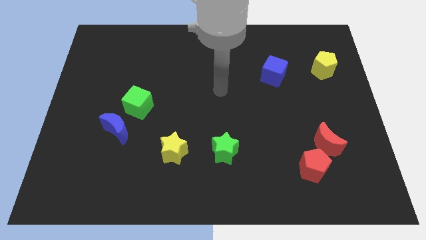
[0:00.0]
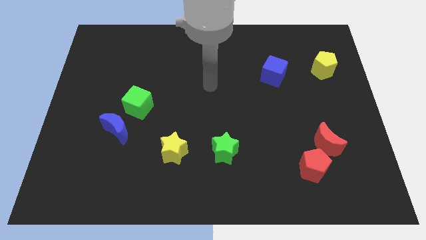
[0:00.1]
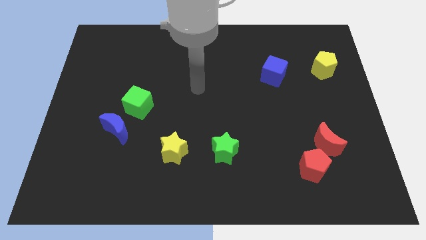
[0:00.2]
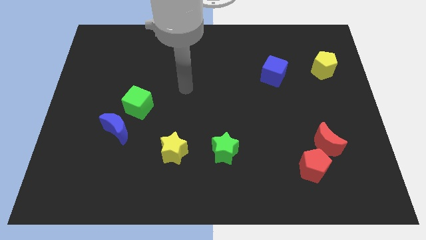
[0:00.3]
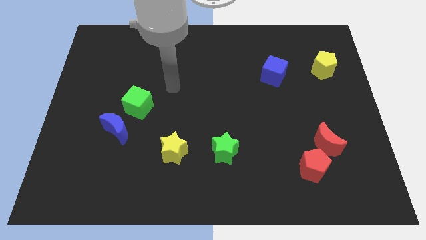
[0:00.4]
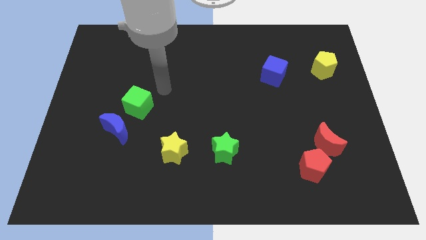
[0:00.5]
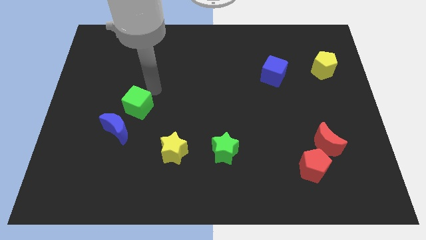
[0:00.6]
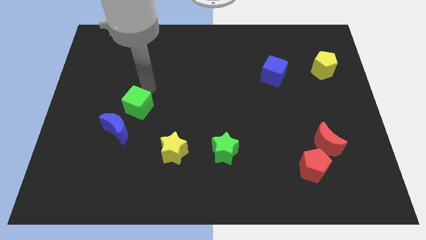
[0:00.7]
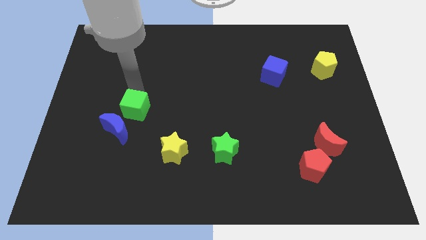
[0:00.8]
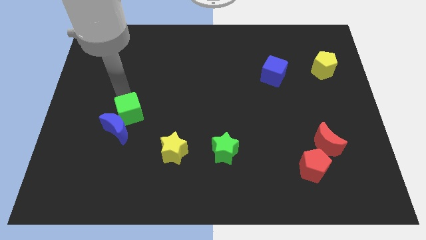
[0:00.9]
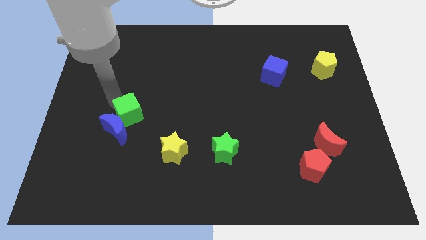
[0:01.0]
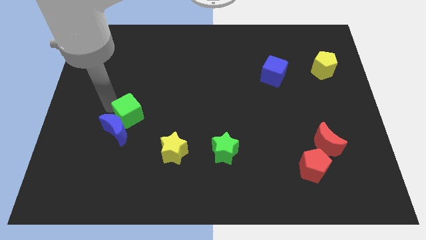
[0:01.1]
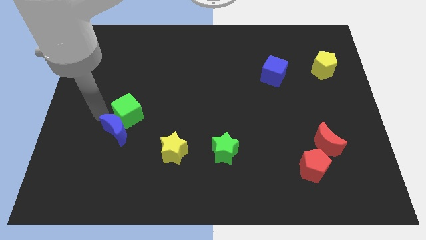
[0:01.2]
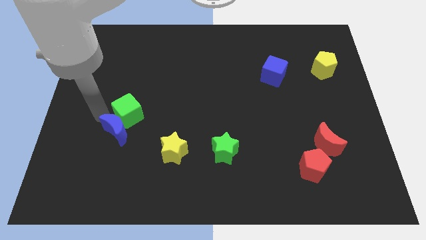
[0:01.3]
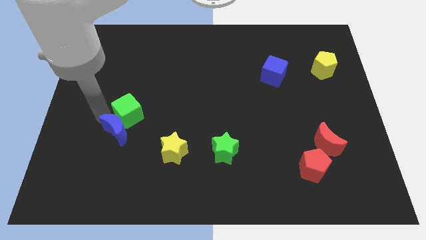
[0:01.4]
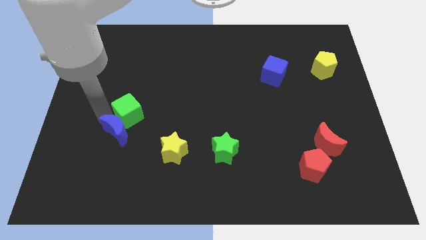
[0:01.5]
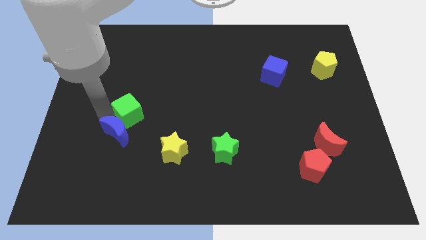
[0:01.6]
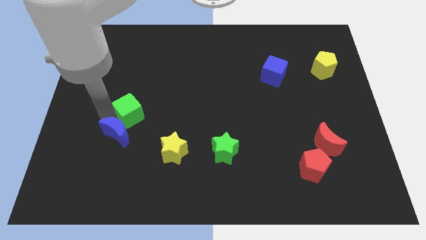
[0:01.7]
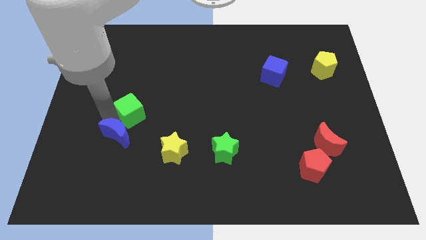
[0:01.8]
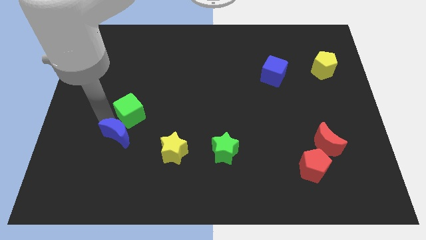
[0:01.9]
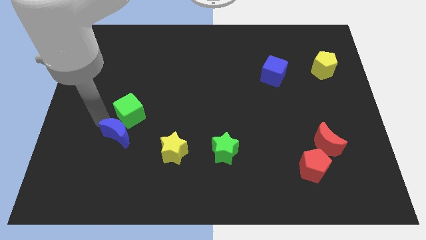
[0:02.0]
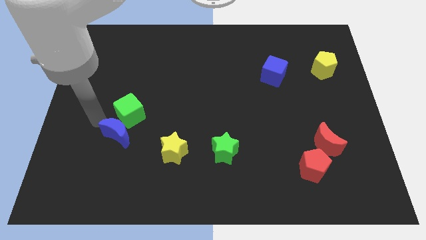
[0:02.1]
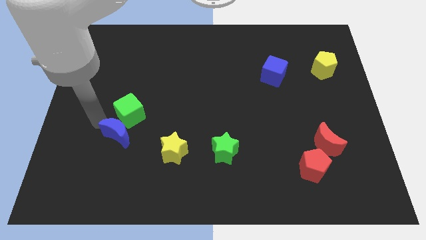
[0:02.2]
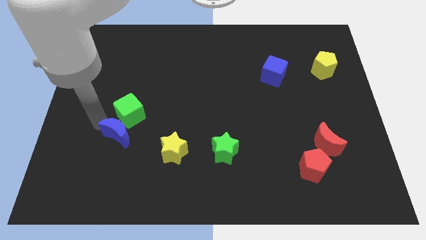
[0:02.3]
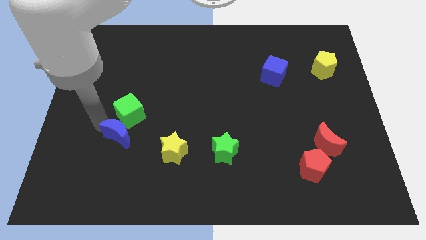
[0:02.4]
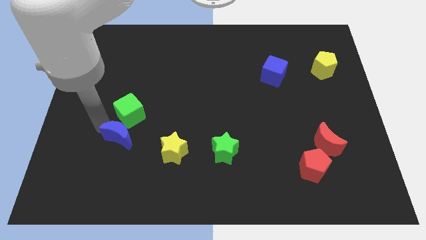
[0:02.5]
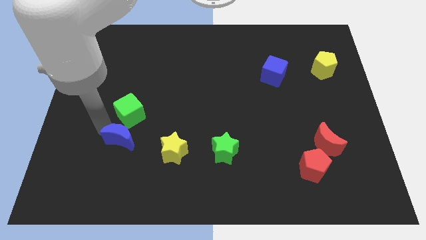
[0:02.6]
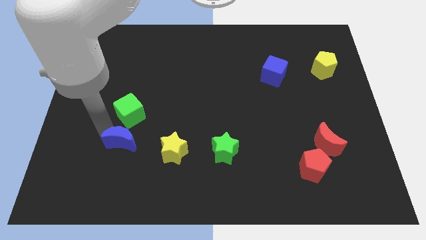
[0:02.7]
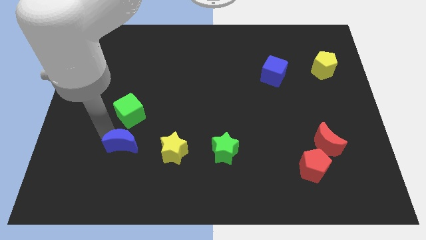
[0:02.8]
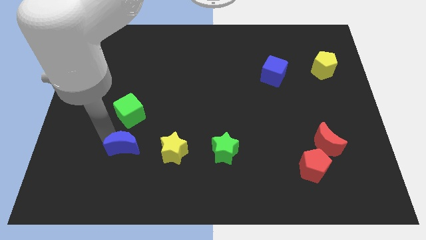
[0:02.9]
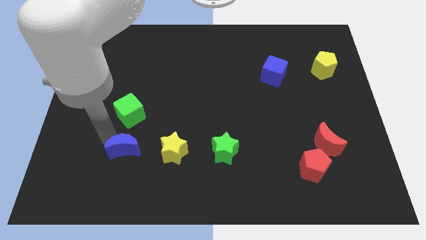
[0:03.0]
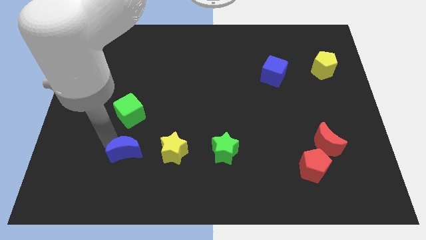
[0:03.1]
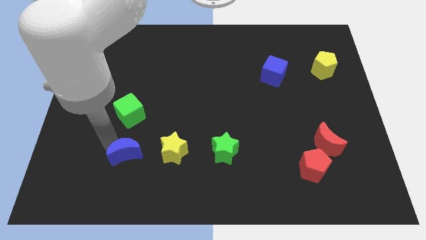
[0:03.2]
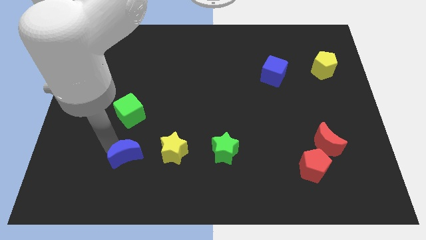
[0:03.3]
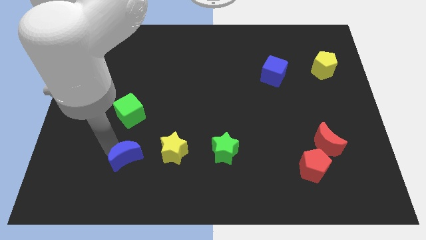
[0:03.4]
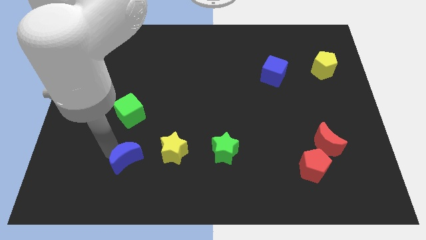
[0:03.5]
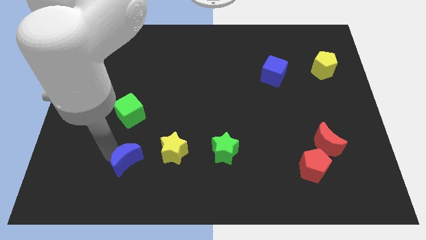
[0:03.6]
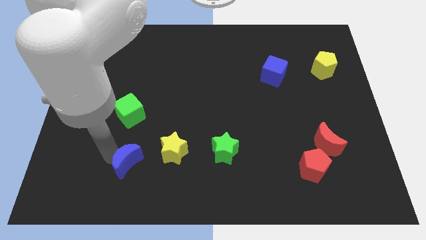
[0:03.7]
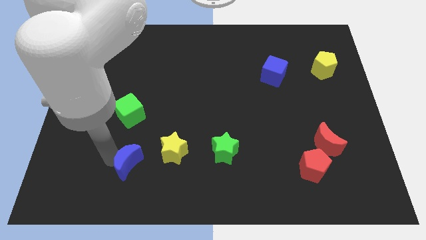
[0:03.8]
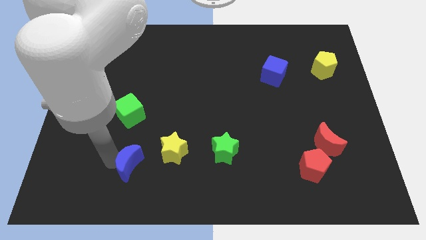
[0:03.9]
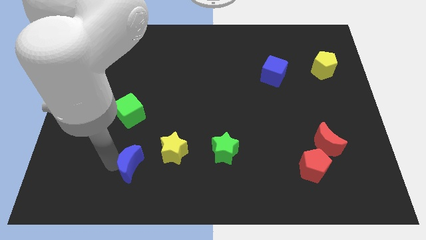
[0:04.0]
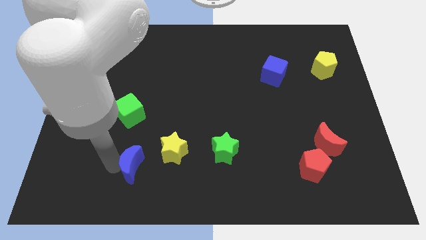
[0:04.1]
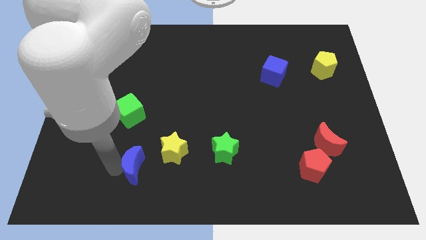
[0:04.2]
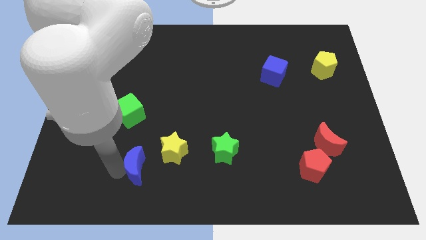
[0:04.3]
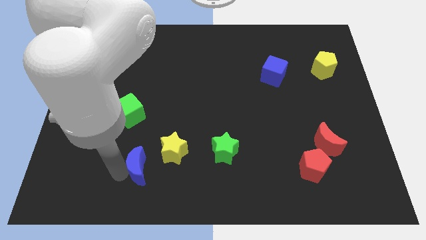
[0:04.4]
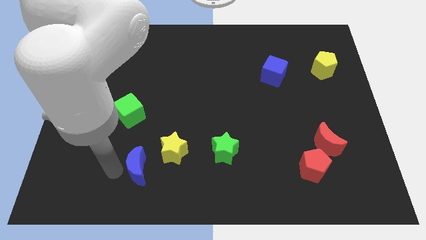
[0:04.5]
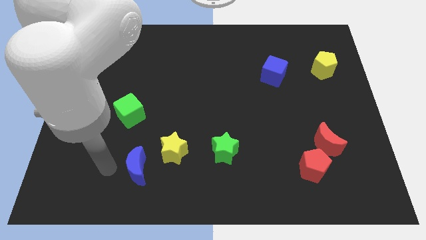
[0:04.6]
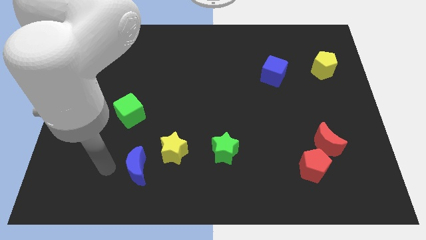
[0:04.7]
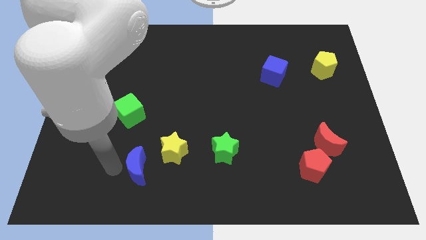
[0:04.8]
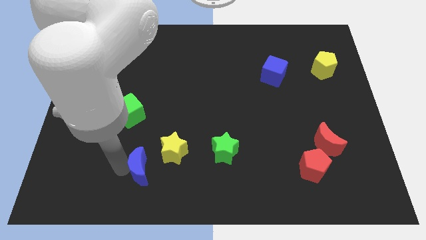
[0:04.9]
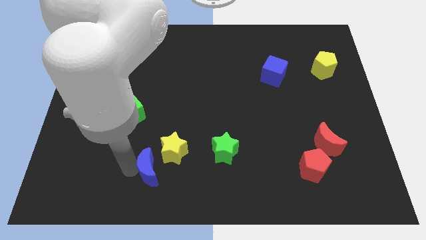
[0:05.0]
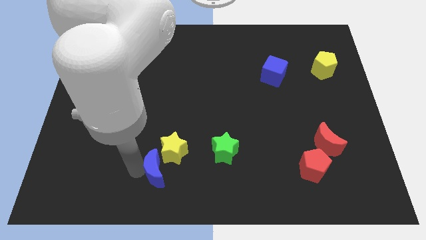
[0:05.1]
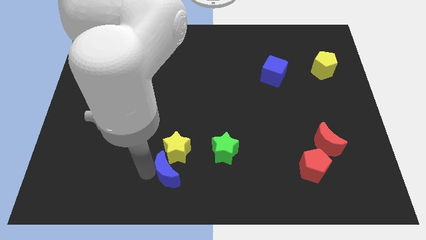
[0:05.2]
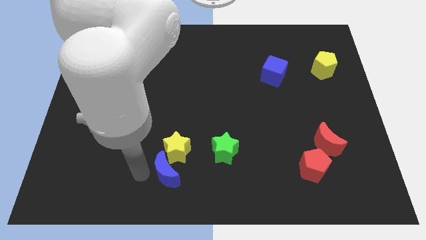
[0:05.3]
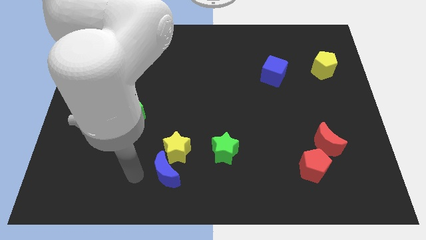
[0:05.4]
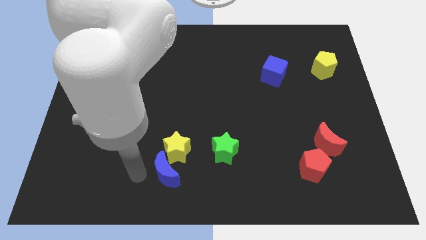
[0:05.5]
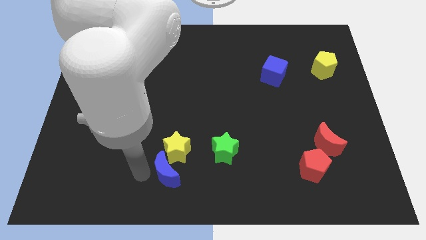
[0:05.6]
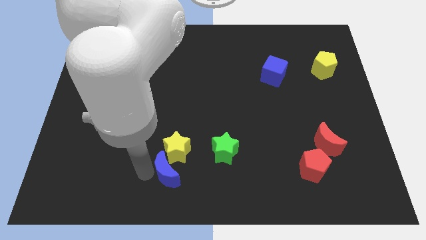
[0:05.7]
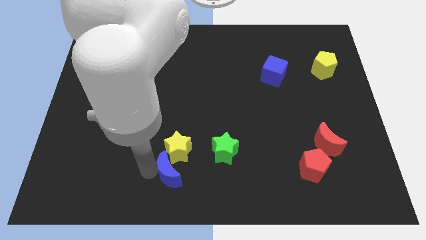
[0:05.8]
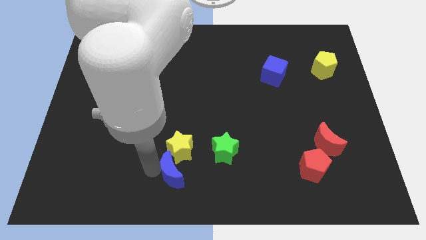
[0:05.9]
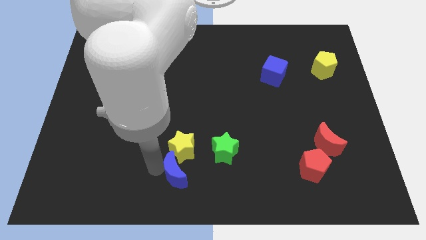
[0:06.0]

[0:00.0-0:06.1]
push the blue moon to the bottom left of the green star

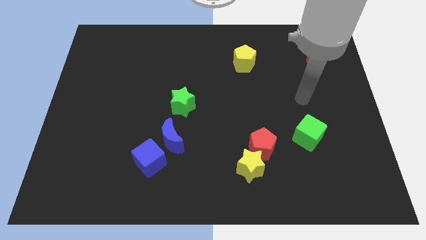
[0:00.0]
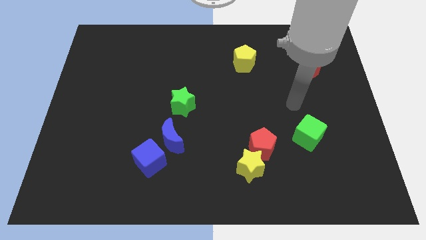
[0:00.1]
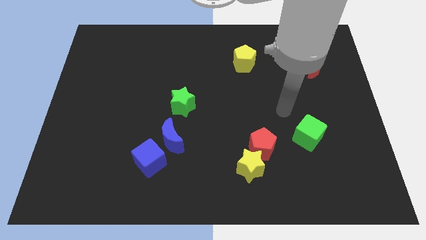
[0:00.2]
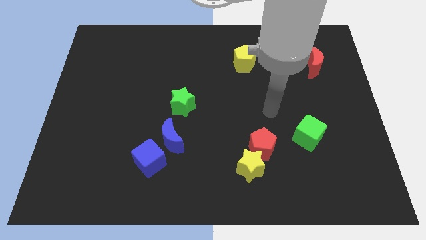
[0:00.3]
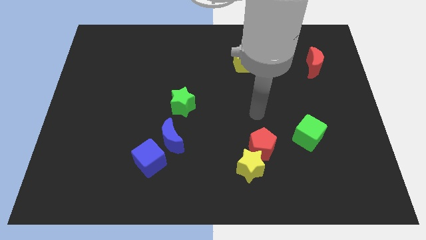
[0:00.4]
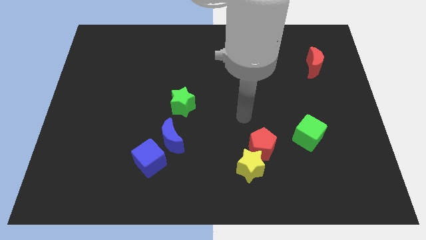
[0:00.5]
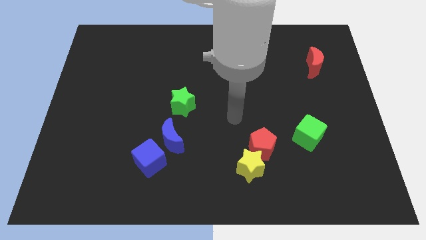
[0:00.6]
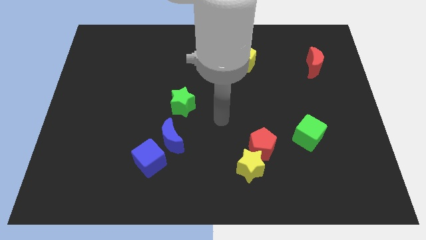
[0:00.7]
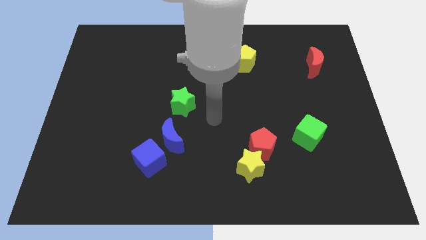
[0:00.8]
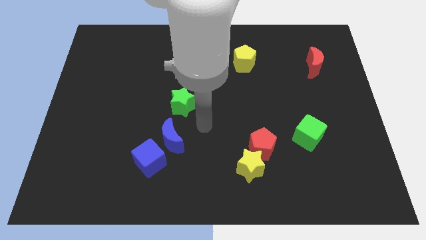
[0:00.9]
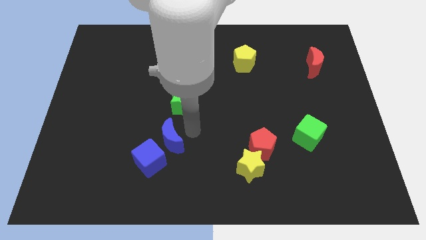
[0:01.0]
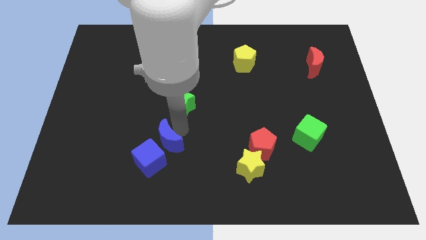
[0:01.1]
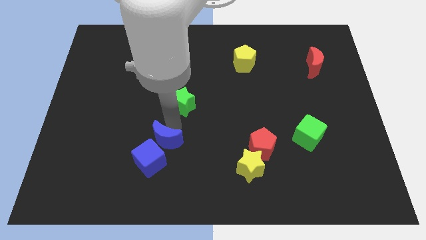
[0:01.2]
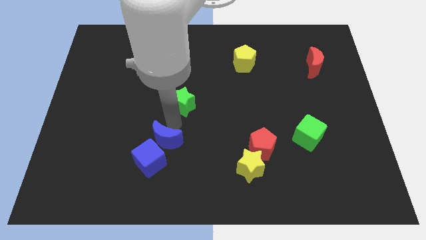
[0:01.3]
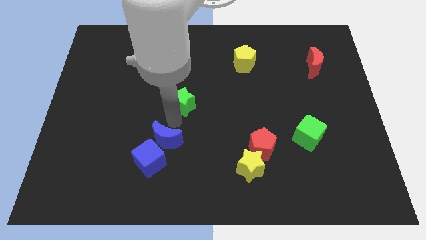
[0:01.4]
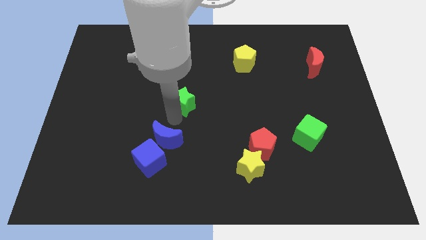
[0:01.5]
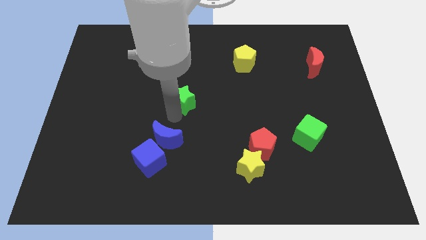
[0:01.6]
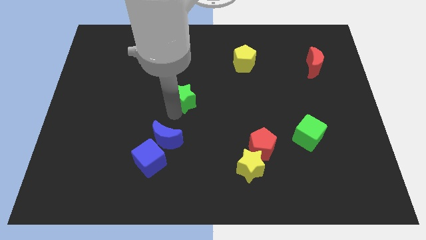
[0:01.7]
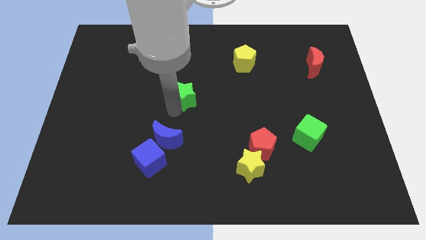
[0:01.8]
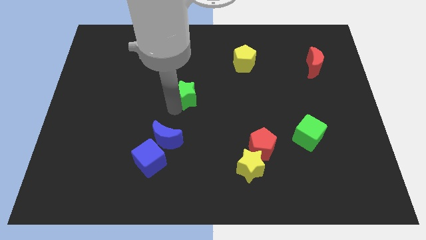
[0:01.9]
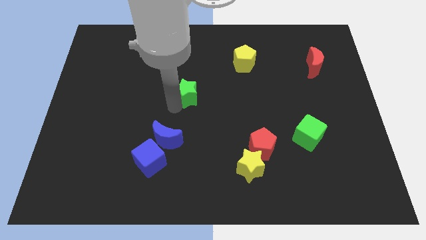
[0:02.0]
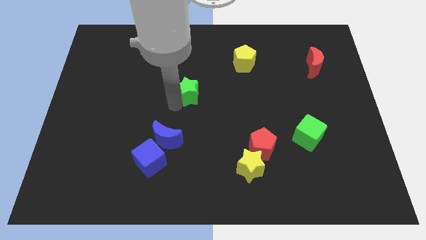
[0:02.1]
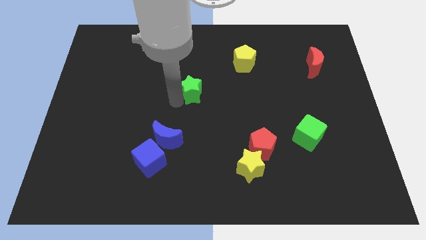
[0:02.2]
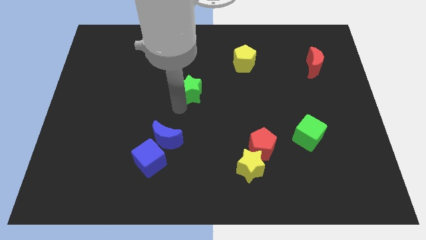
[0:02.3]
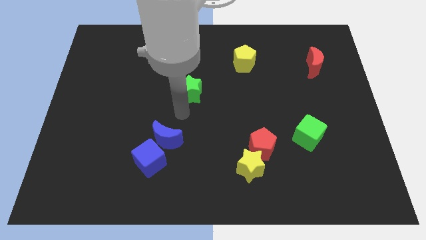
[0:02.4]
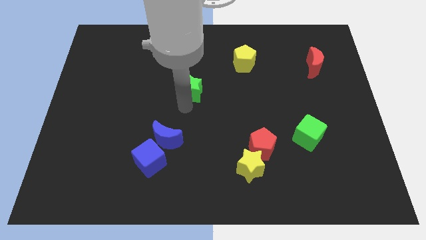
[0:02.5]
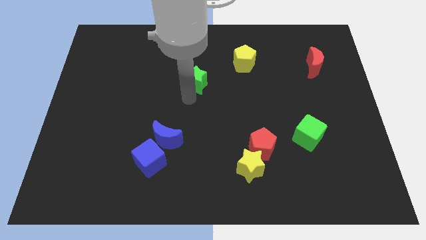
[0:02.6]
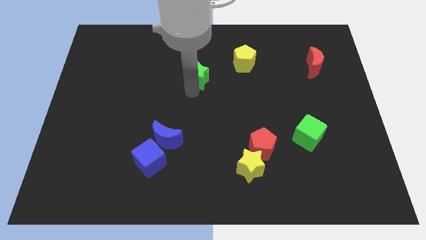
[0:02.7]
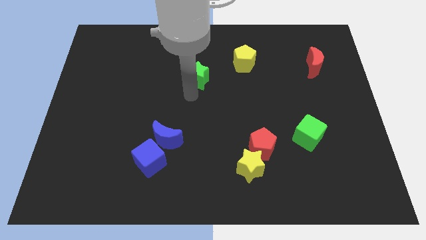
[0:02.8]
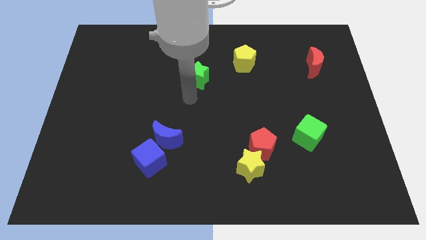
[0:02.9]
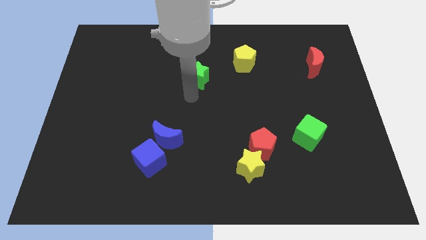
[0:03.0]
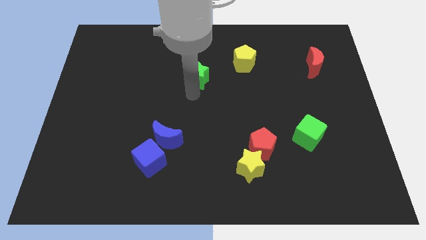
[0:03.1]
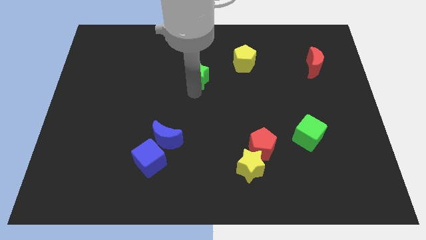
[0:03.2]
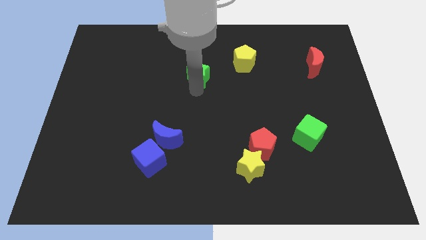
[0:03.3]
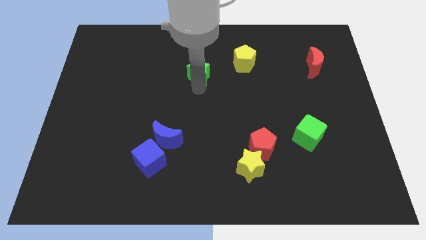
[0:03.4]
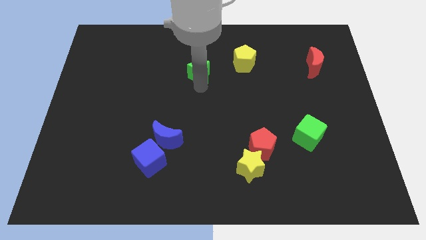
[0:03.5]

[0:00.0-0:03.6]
push the green star to the left of the yellow pentagon
